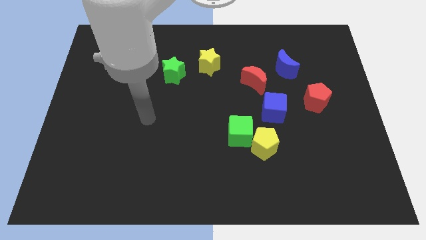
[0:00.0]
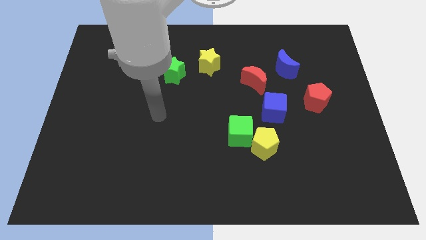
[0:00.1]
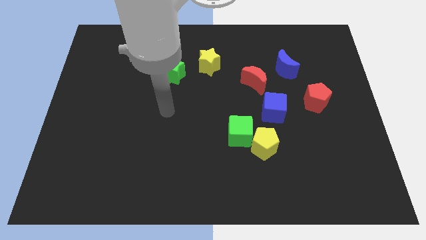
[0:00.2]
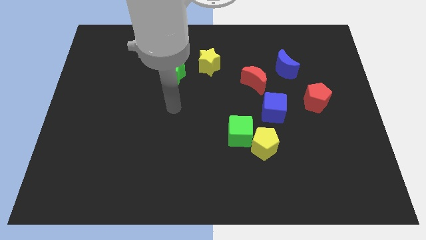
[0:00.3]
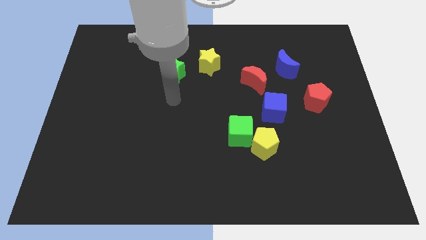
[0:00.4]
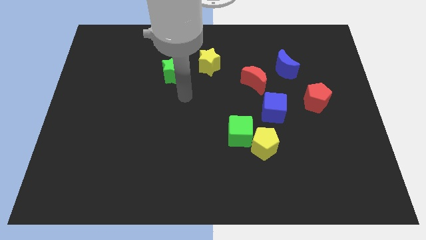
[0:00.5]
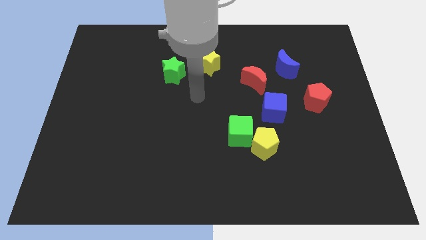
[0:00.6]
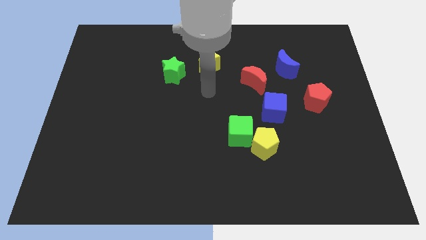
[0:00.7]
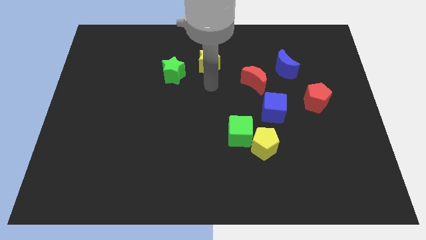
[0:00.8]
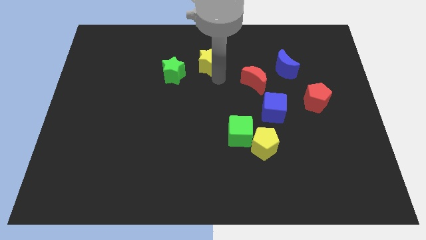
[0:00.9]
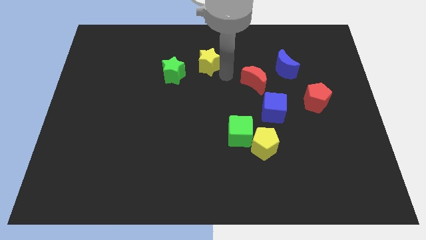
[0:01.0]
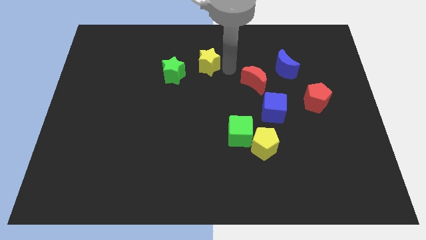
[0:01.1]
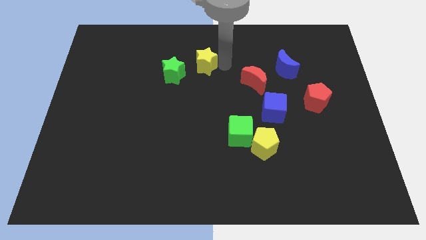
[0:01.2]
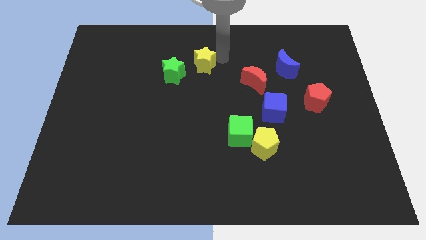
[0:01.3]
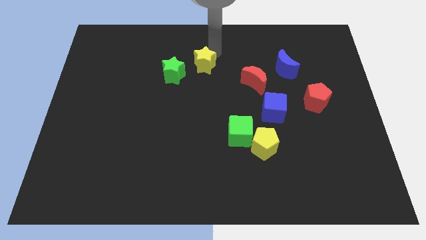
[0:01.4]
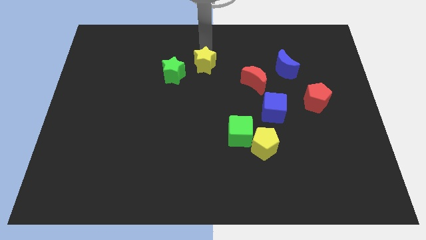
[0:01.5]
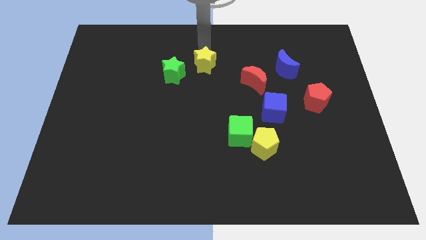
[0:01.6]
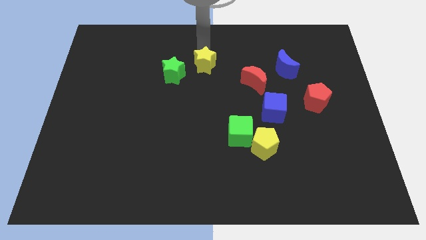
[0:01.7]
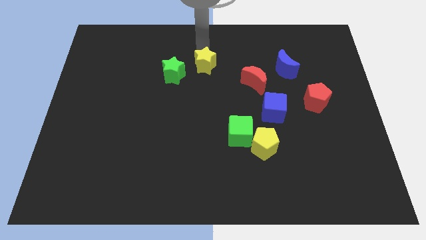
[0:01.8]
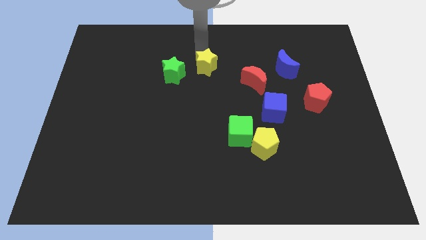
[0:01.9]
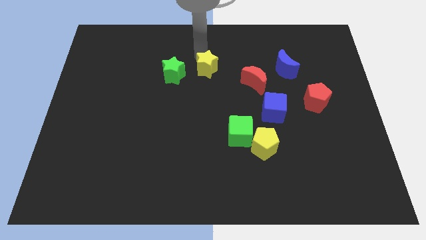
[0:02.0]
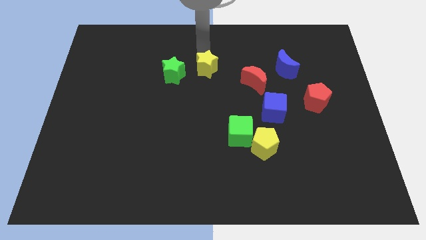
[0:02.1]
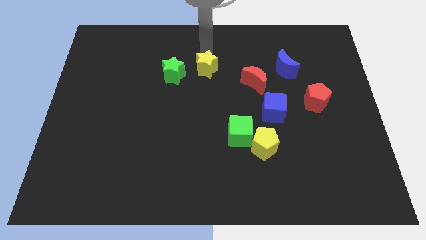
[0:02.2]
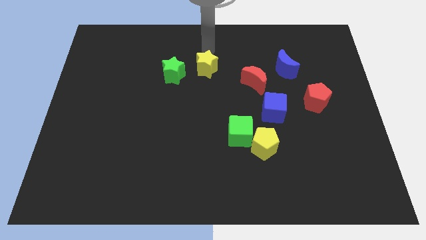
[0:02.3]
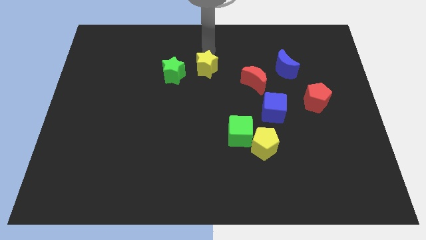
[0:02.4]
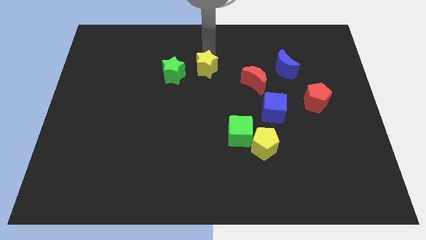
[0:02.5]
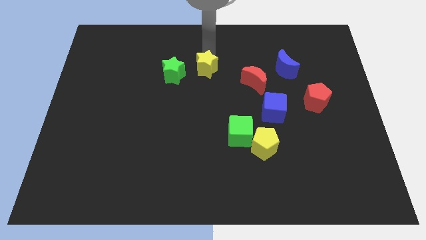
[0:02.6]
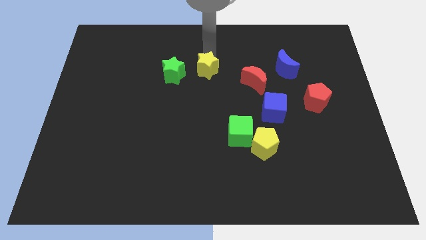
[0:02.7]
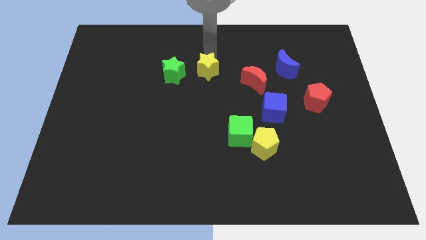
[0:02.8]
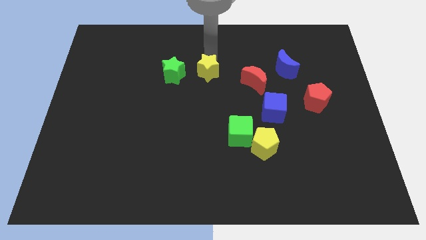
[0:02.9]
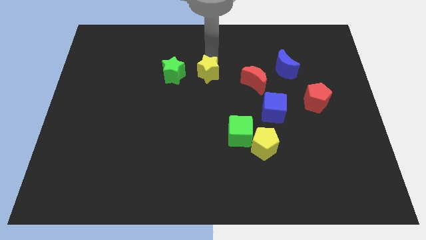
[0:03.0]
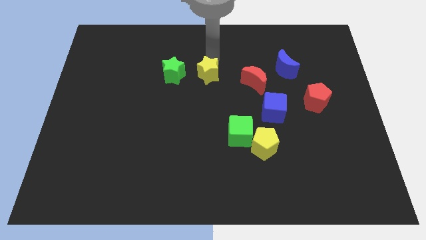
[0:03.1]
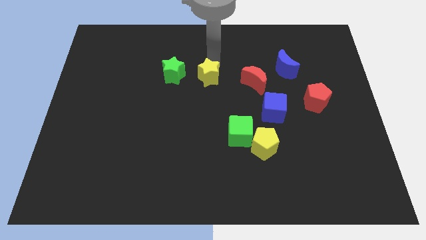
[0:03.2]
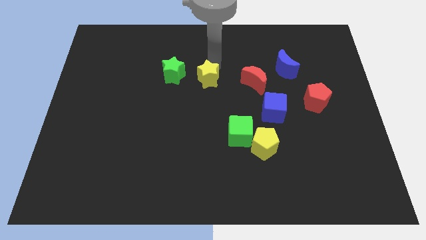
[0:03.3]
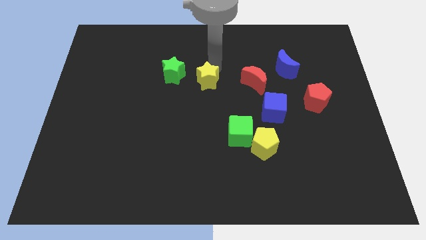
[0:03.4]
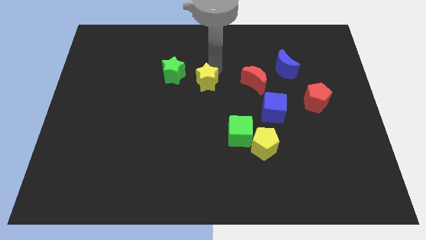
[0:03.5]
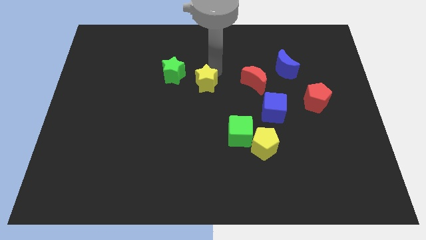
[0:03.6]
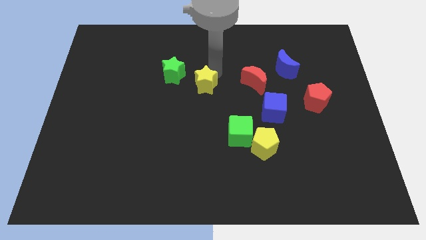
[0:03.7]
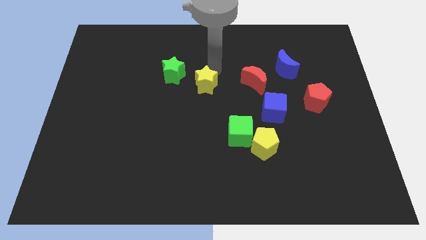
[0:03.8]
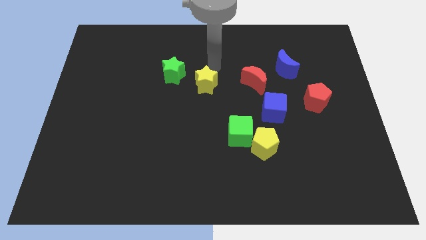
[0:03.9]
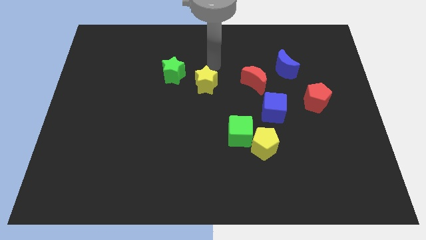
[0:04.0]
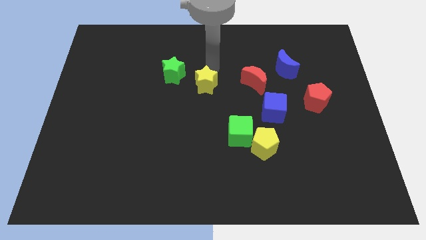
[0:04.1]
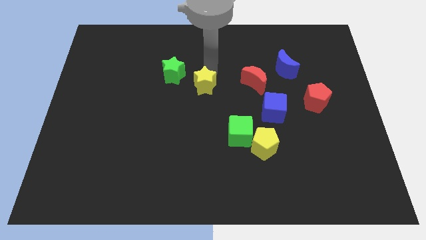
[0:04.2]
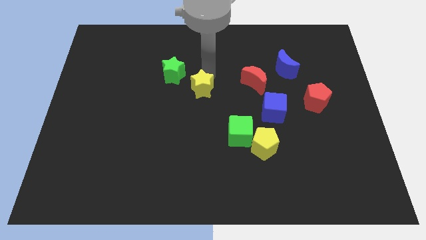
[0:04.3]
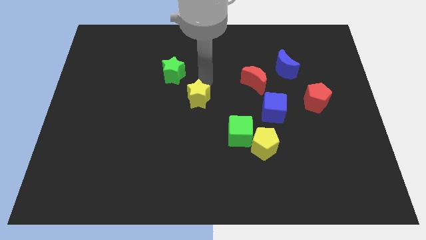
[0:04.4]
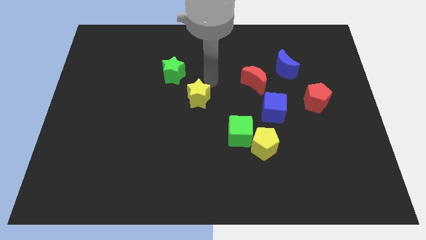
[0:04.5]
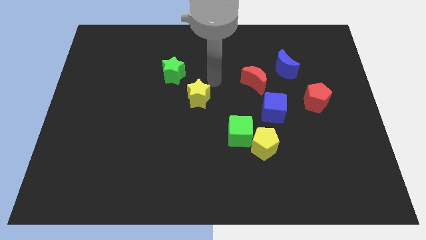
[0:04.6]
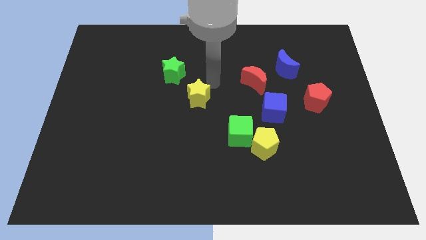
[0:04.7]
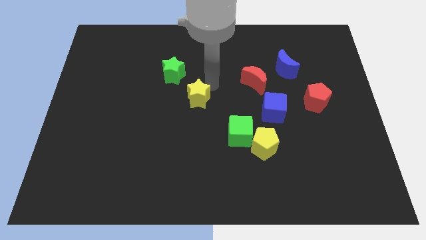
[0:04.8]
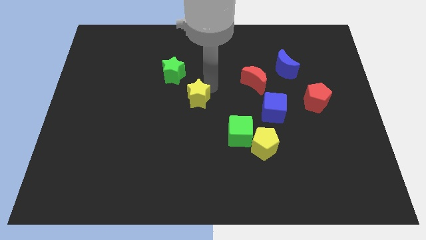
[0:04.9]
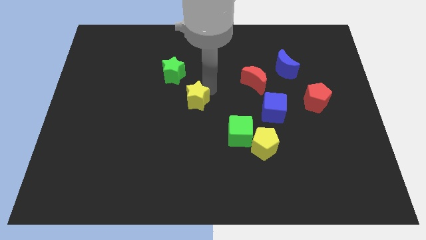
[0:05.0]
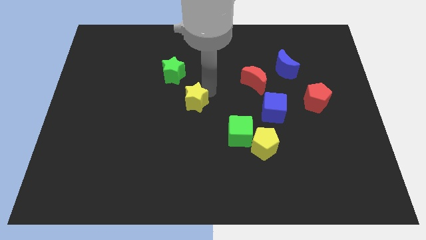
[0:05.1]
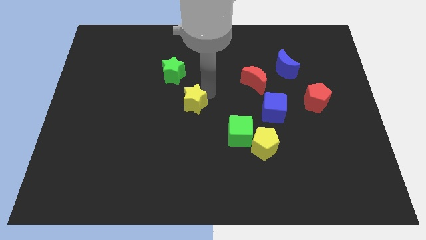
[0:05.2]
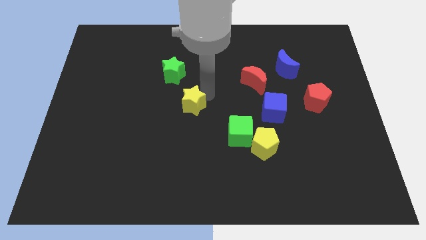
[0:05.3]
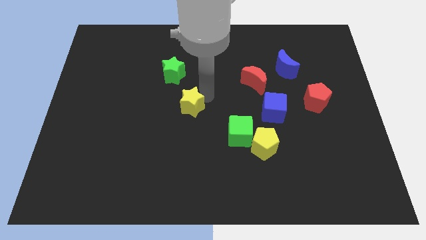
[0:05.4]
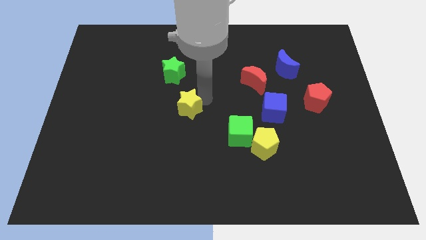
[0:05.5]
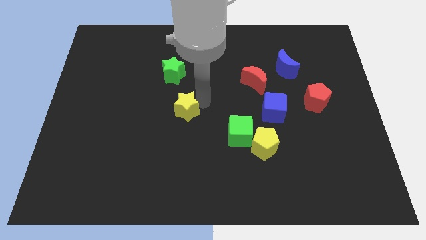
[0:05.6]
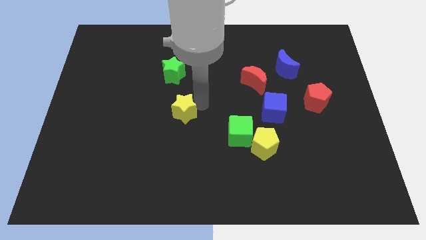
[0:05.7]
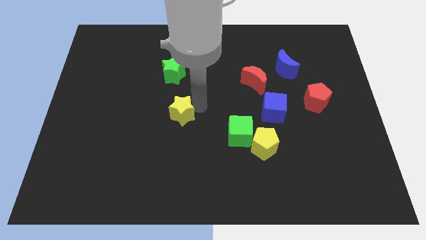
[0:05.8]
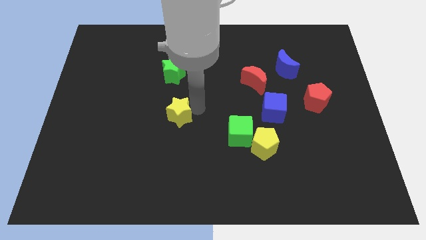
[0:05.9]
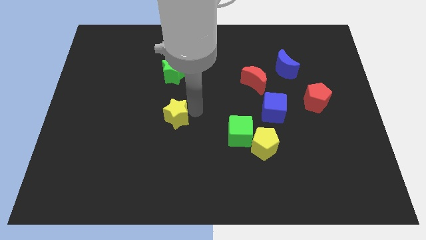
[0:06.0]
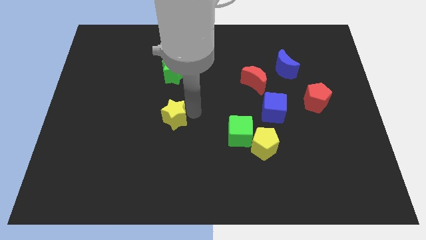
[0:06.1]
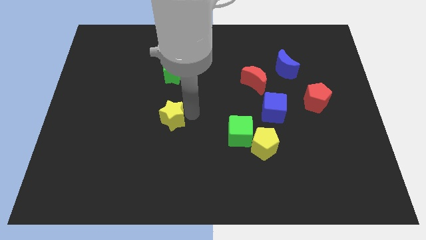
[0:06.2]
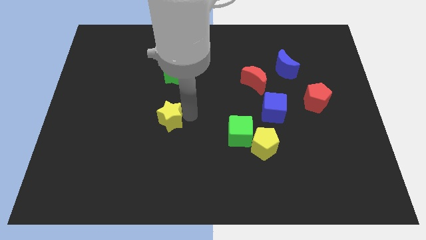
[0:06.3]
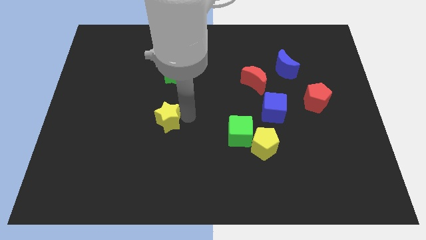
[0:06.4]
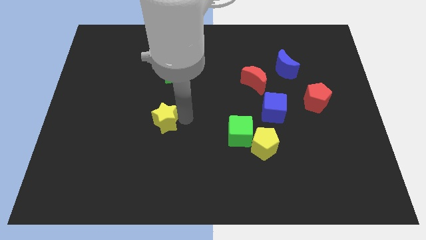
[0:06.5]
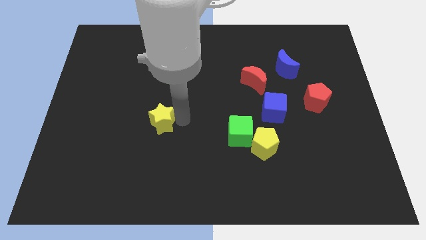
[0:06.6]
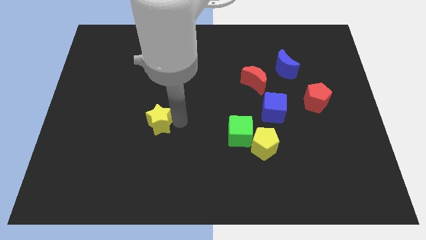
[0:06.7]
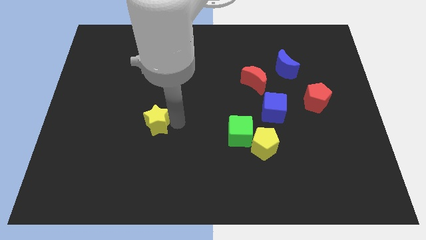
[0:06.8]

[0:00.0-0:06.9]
push the yellow star diagonally downwards and to the left

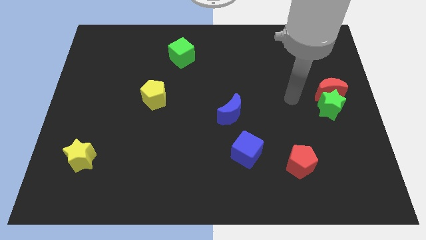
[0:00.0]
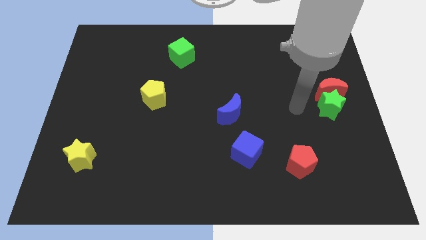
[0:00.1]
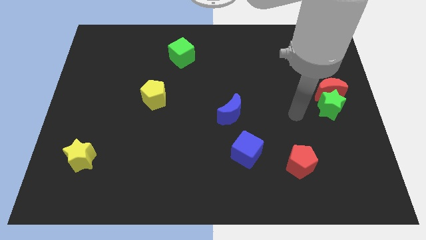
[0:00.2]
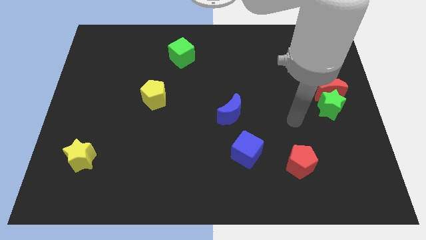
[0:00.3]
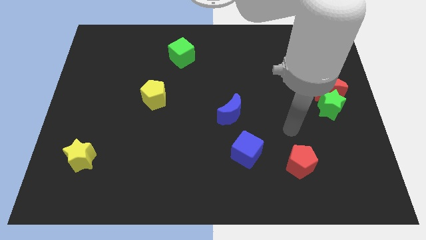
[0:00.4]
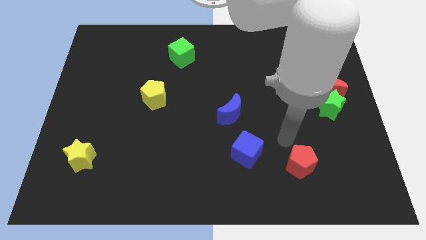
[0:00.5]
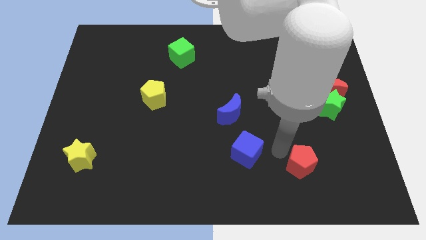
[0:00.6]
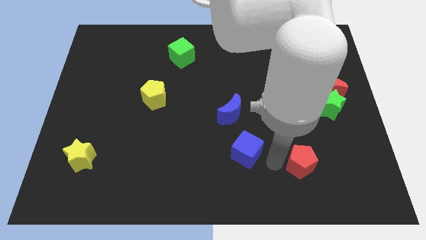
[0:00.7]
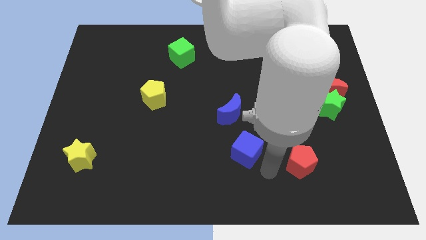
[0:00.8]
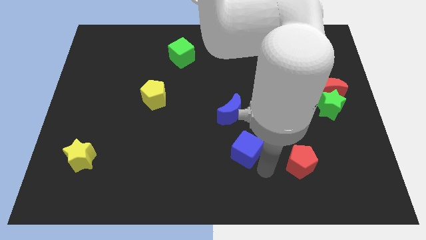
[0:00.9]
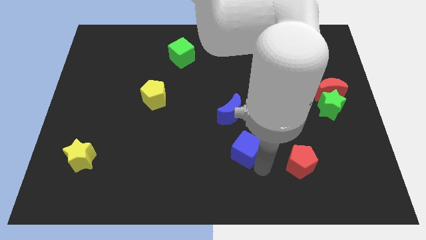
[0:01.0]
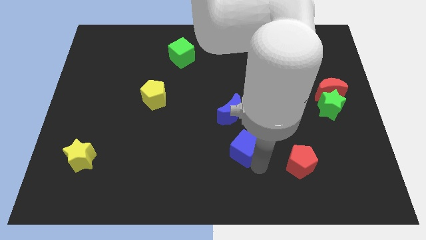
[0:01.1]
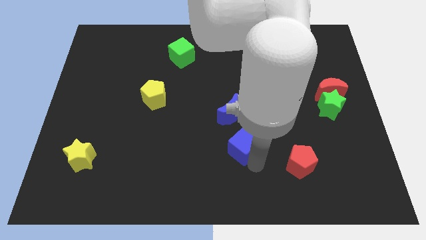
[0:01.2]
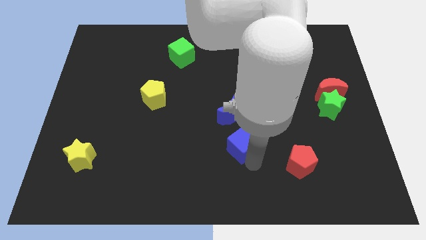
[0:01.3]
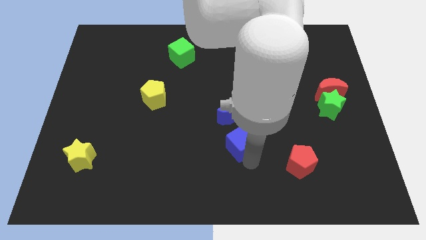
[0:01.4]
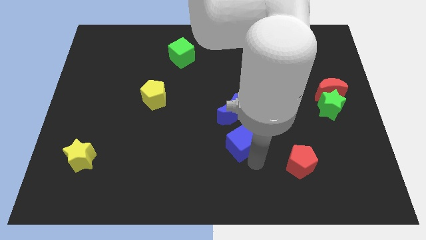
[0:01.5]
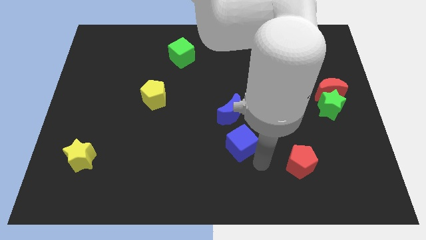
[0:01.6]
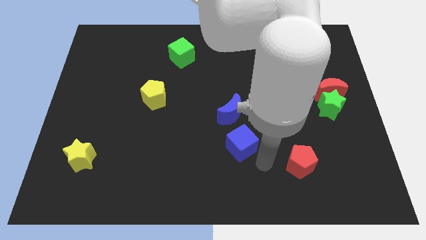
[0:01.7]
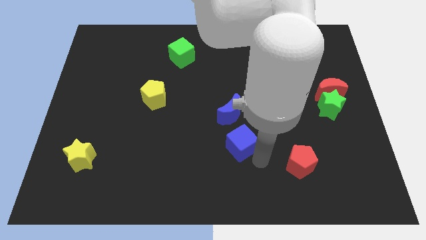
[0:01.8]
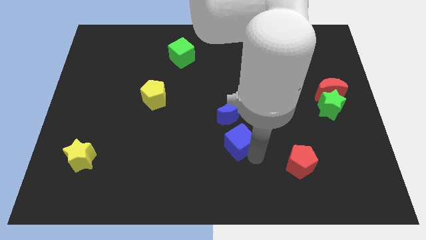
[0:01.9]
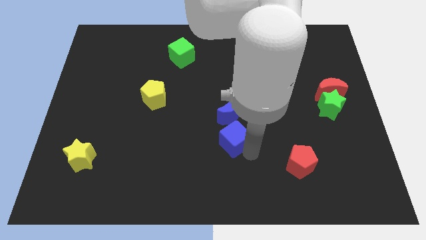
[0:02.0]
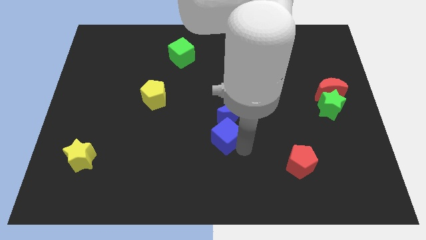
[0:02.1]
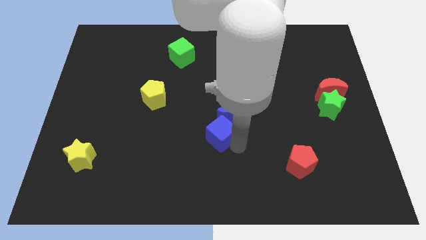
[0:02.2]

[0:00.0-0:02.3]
push the blue cube up and to the left diagonally somewhat
